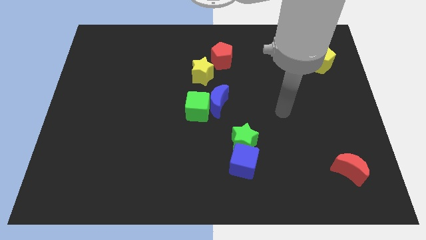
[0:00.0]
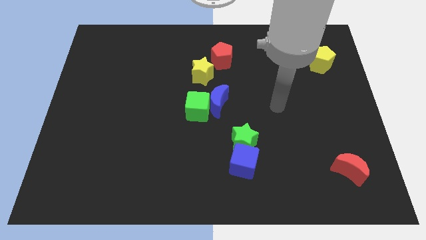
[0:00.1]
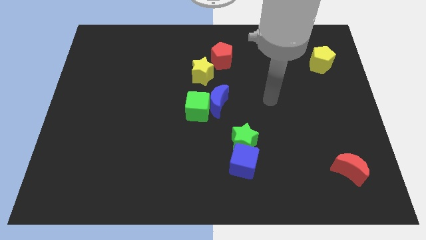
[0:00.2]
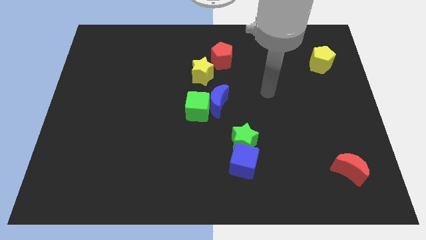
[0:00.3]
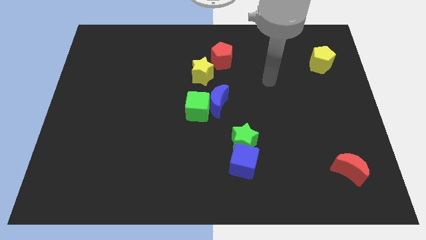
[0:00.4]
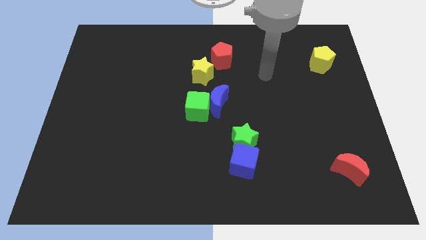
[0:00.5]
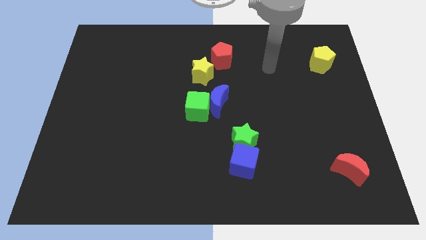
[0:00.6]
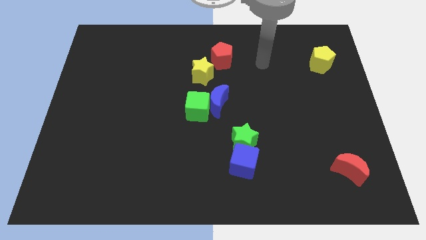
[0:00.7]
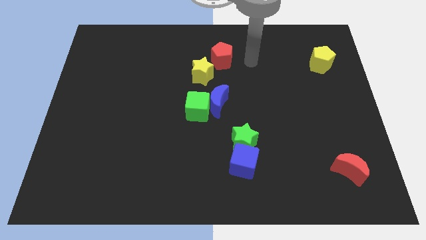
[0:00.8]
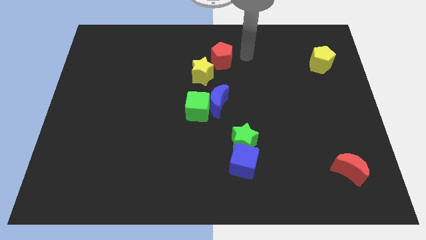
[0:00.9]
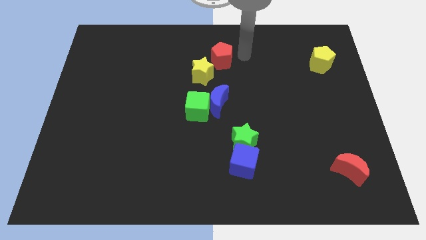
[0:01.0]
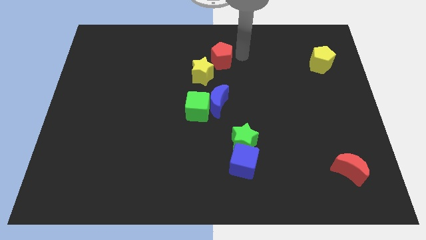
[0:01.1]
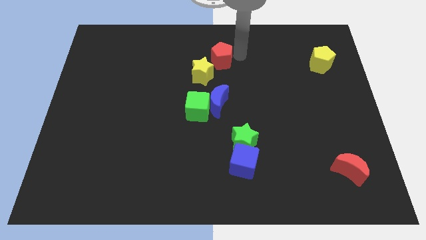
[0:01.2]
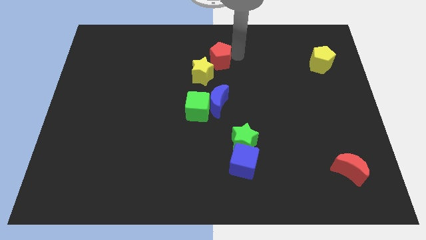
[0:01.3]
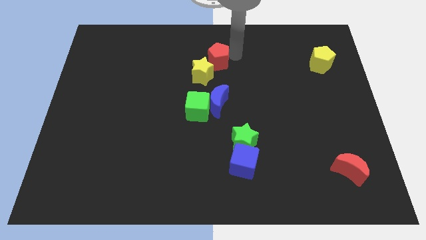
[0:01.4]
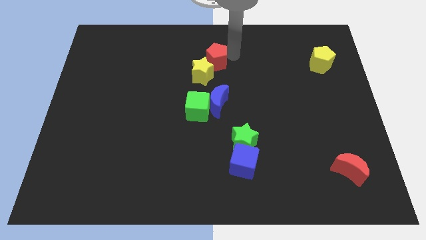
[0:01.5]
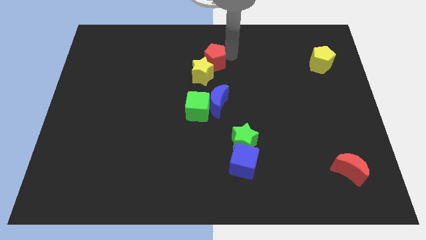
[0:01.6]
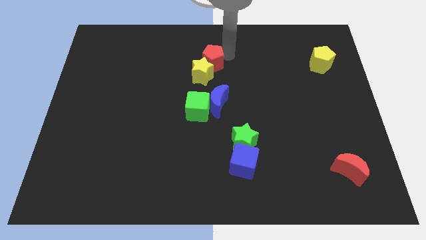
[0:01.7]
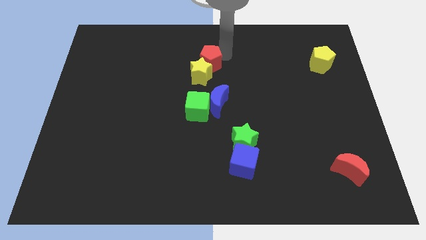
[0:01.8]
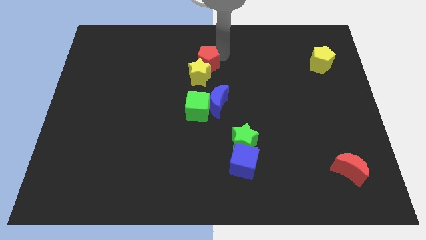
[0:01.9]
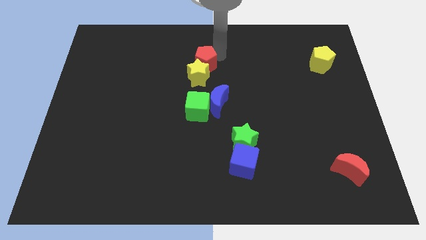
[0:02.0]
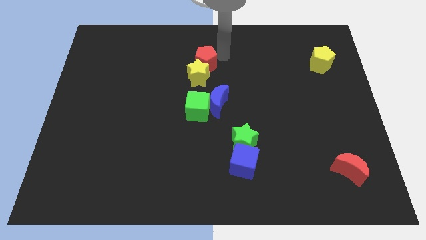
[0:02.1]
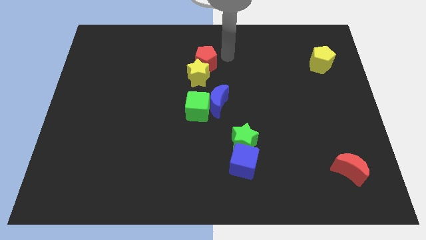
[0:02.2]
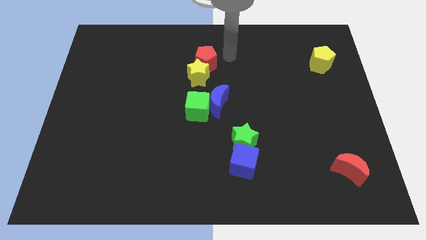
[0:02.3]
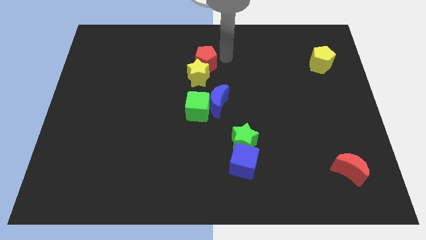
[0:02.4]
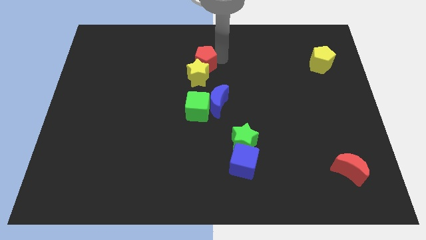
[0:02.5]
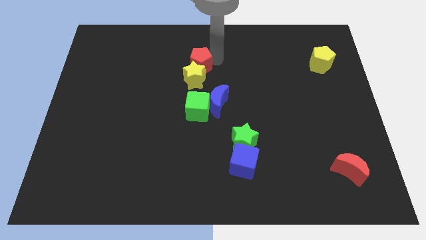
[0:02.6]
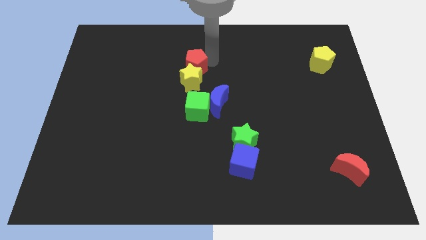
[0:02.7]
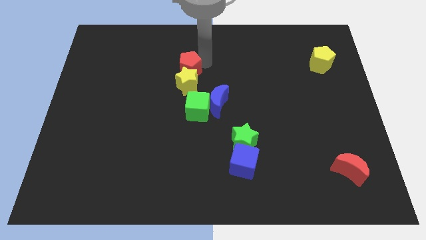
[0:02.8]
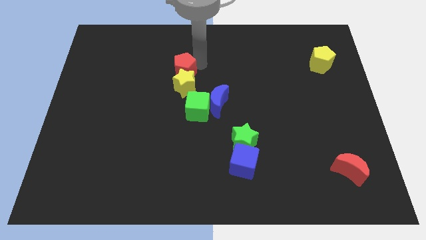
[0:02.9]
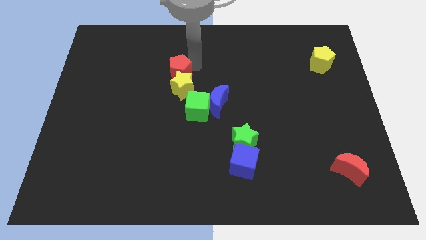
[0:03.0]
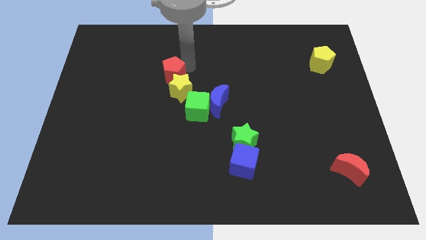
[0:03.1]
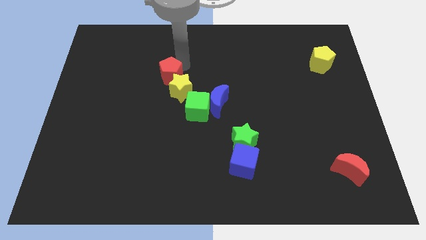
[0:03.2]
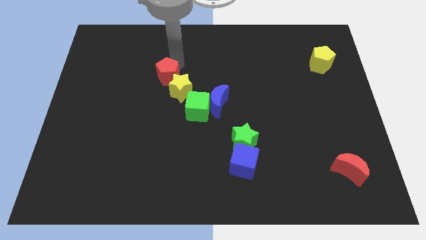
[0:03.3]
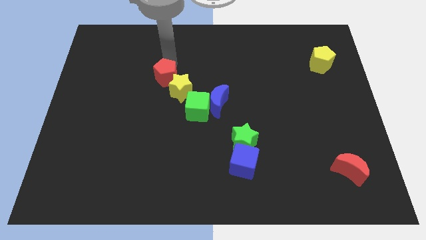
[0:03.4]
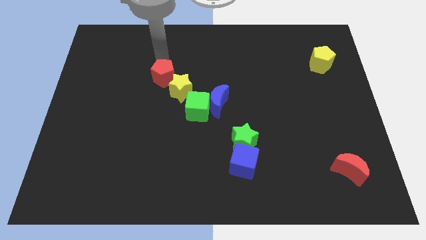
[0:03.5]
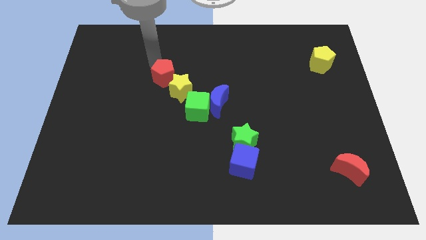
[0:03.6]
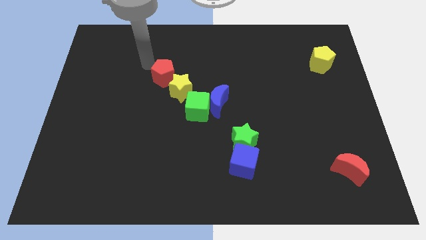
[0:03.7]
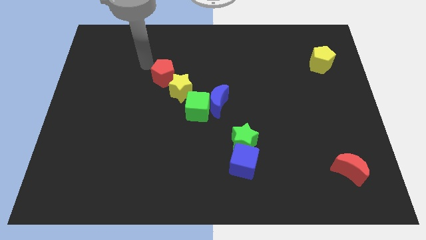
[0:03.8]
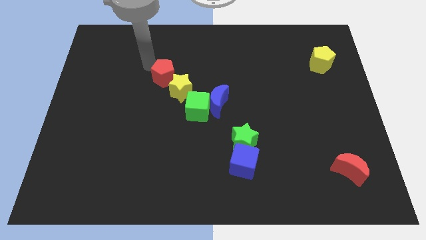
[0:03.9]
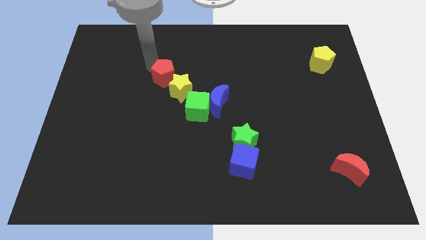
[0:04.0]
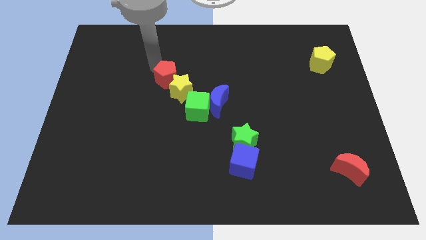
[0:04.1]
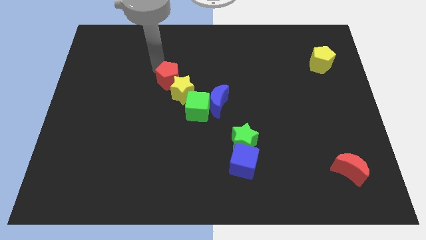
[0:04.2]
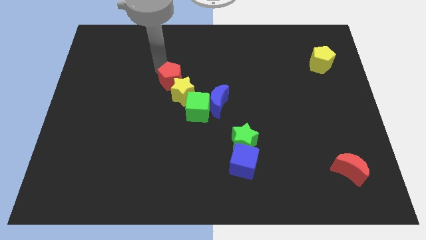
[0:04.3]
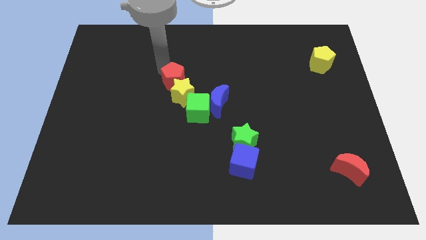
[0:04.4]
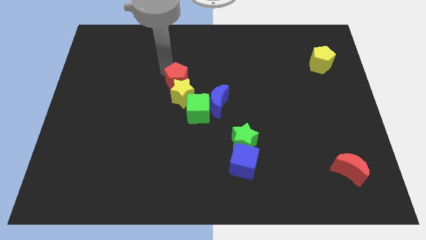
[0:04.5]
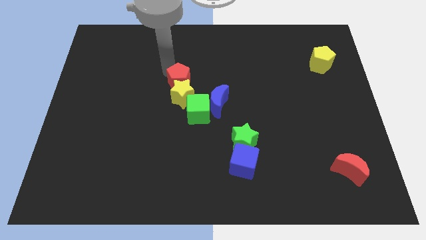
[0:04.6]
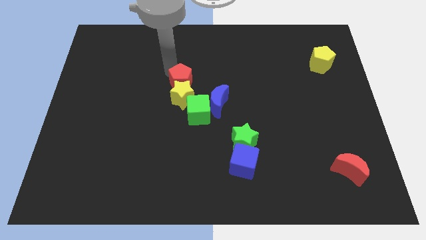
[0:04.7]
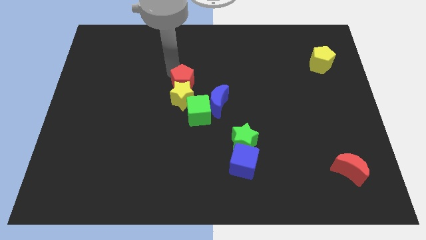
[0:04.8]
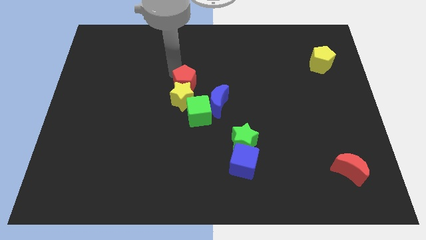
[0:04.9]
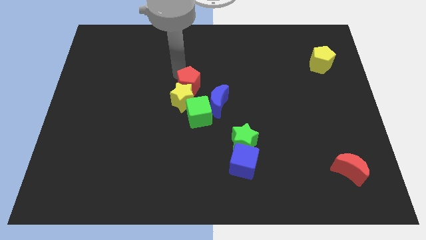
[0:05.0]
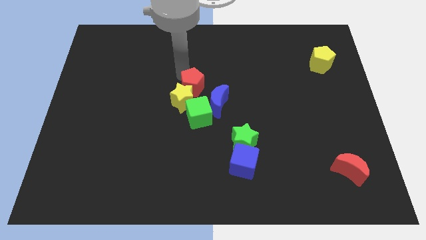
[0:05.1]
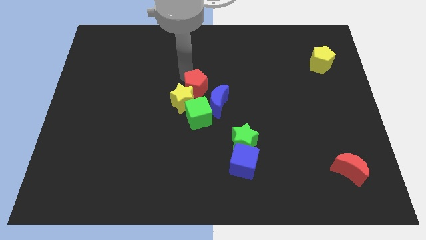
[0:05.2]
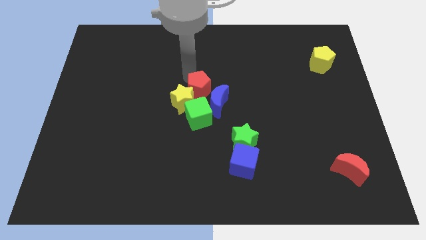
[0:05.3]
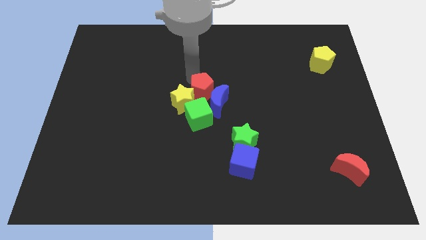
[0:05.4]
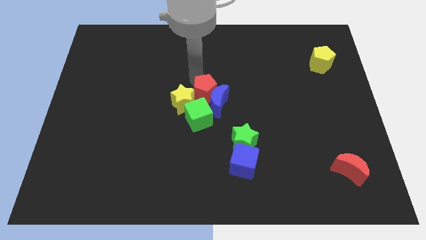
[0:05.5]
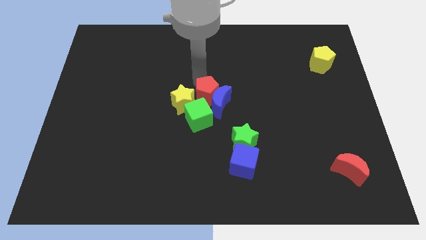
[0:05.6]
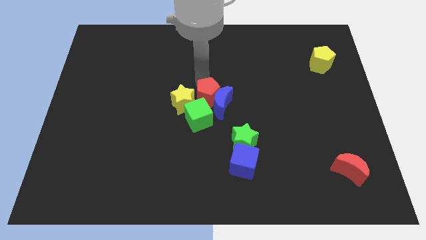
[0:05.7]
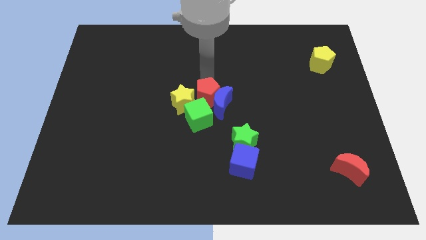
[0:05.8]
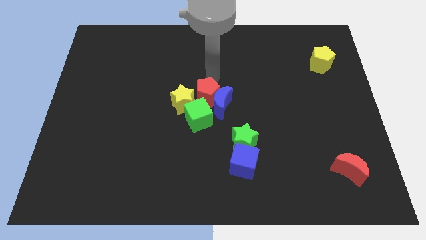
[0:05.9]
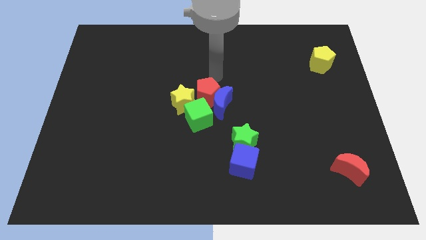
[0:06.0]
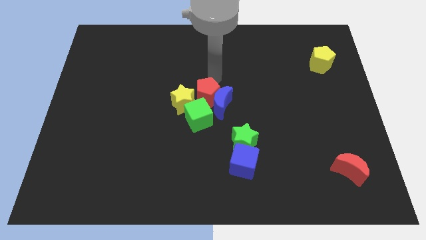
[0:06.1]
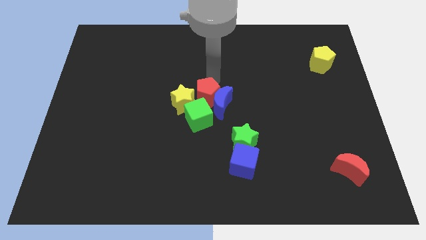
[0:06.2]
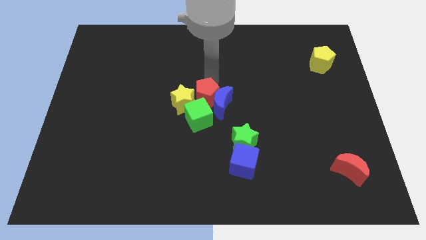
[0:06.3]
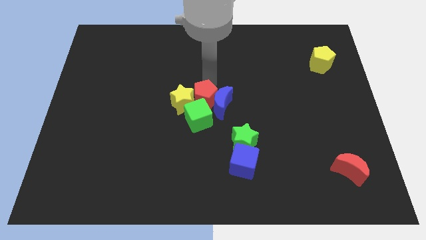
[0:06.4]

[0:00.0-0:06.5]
slide the red pentagon next to the green cube

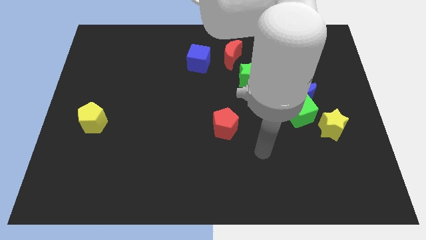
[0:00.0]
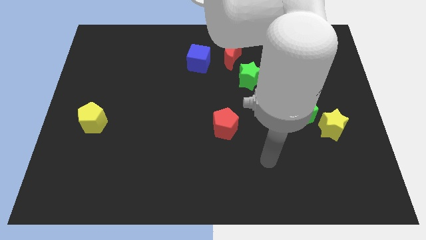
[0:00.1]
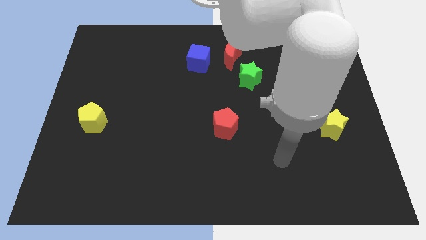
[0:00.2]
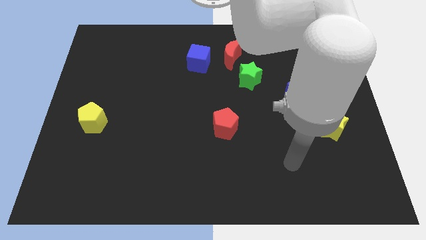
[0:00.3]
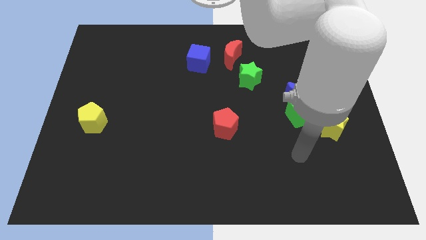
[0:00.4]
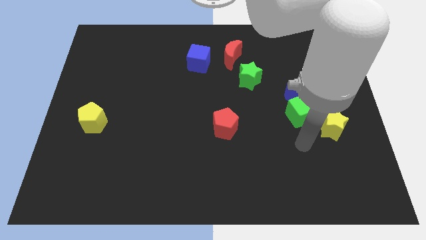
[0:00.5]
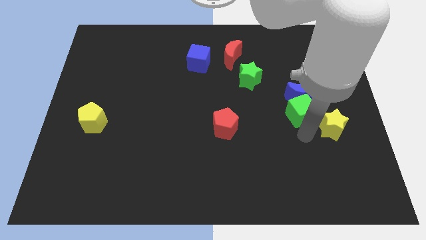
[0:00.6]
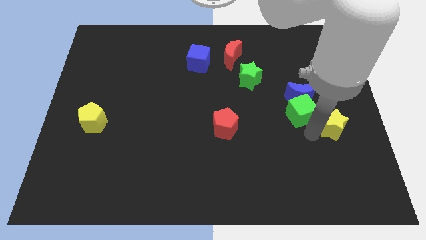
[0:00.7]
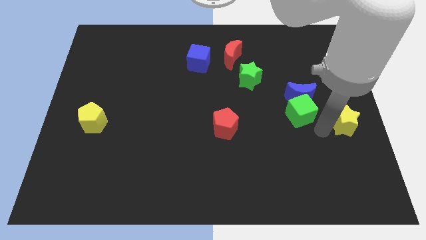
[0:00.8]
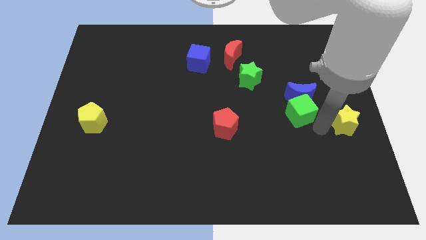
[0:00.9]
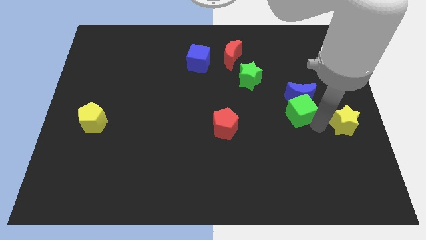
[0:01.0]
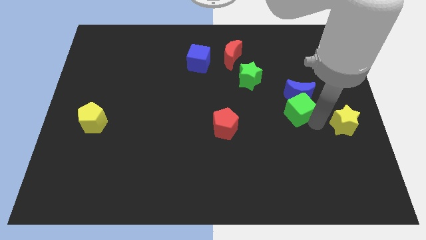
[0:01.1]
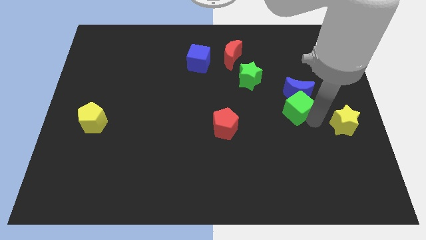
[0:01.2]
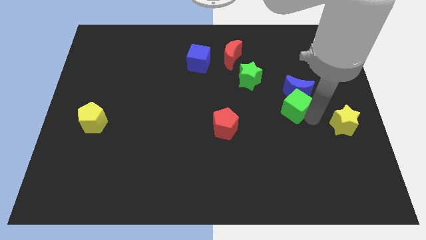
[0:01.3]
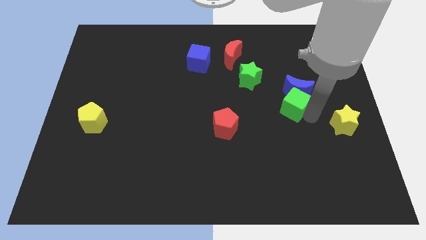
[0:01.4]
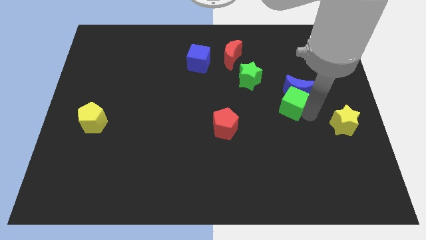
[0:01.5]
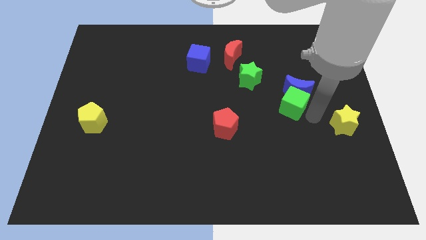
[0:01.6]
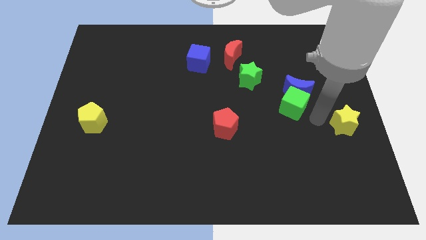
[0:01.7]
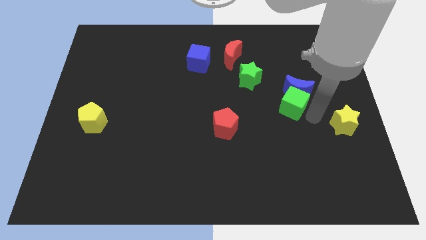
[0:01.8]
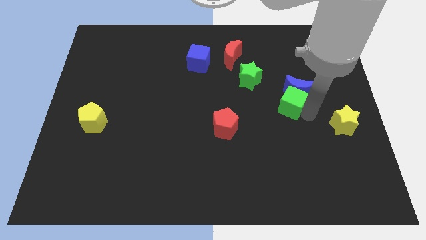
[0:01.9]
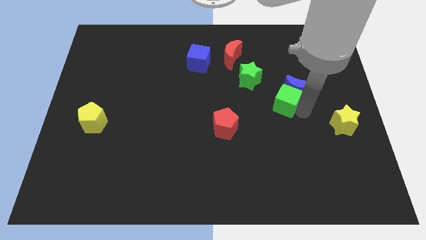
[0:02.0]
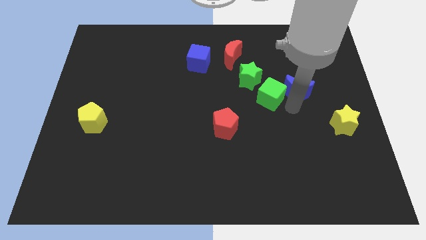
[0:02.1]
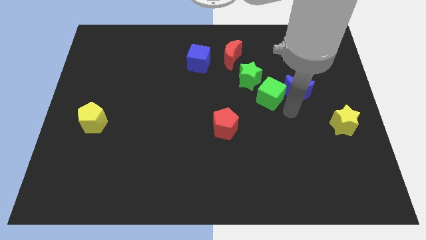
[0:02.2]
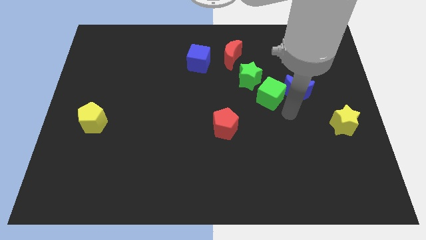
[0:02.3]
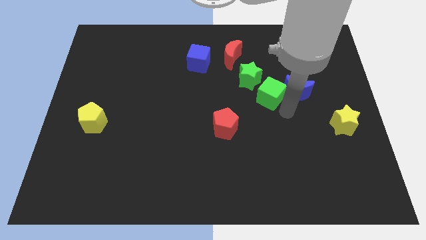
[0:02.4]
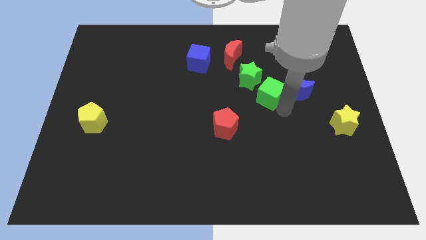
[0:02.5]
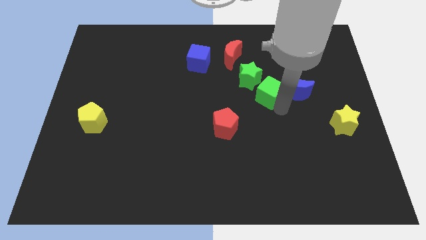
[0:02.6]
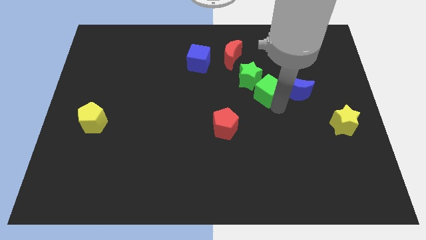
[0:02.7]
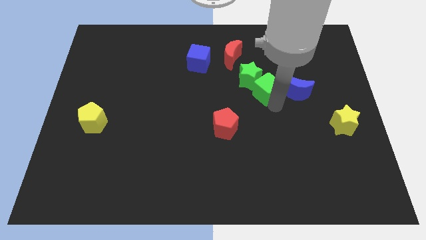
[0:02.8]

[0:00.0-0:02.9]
move the green cube next to the green star
